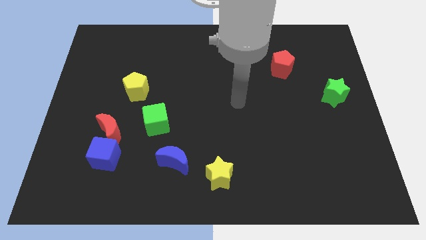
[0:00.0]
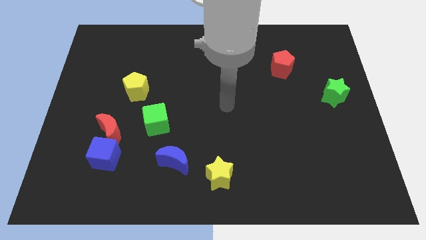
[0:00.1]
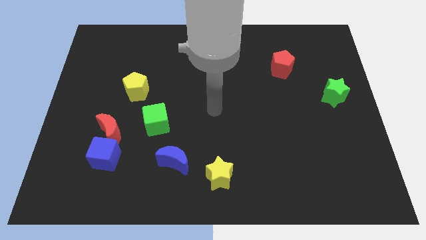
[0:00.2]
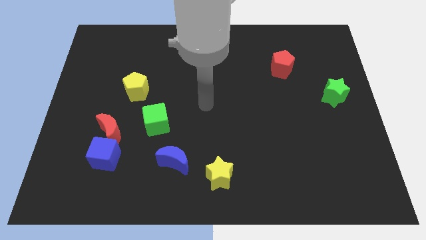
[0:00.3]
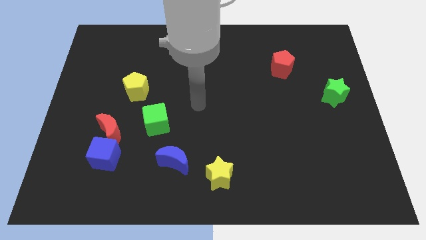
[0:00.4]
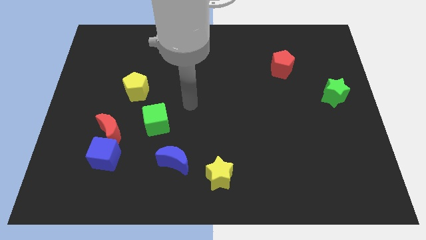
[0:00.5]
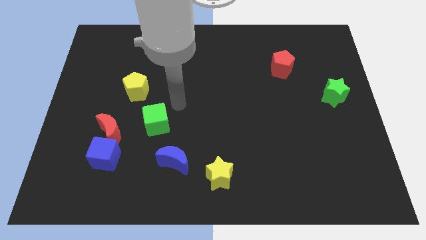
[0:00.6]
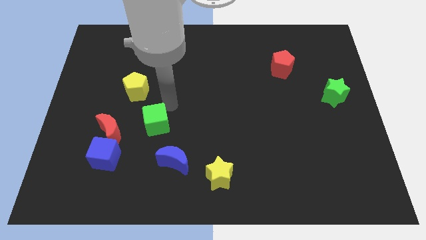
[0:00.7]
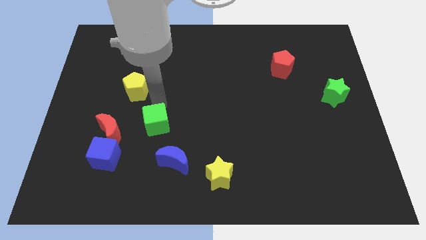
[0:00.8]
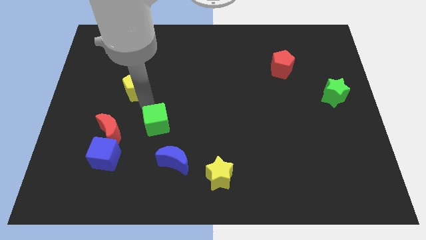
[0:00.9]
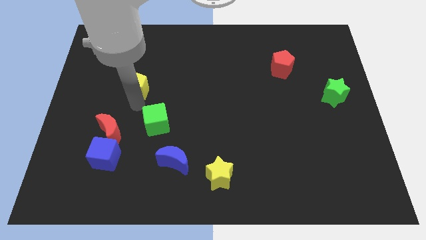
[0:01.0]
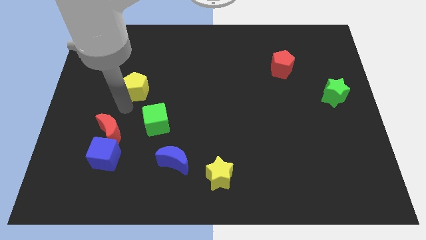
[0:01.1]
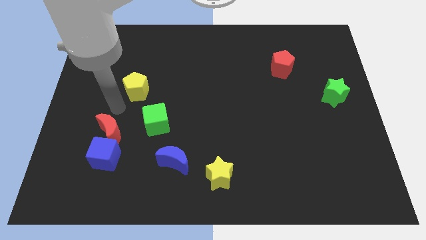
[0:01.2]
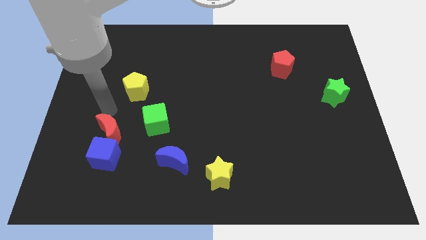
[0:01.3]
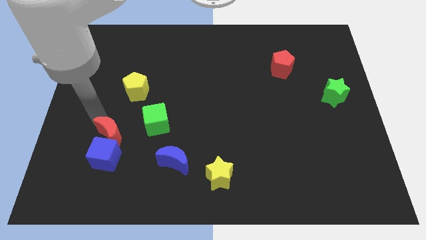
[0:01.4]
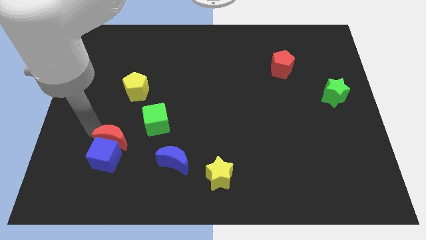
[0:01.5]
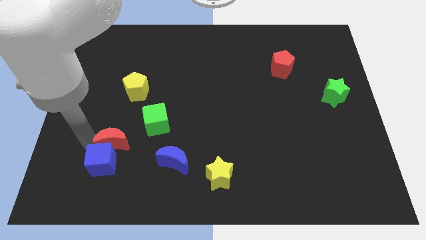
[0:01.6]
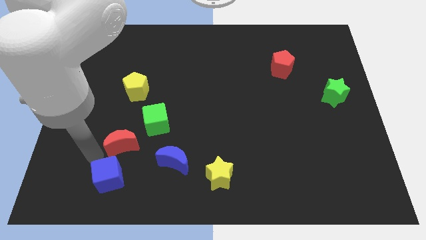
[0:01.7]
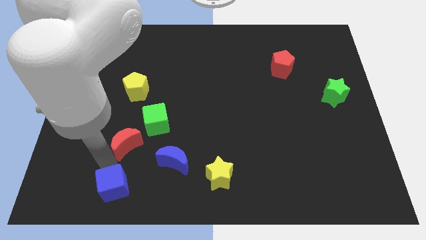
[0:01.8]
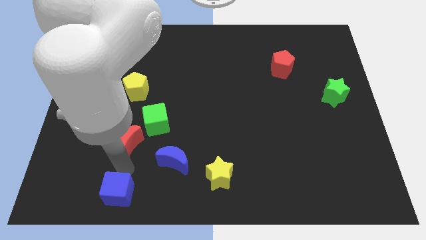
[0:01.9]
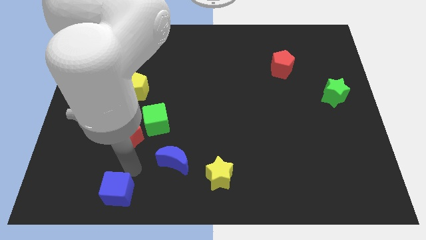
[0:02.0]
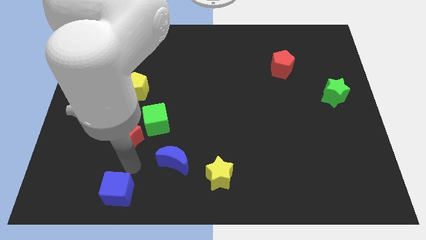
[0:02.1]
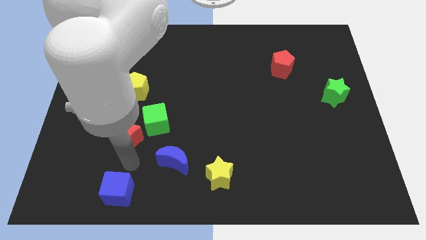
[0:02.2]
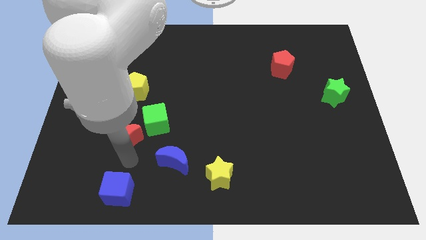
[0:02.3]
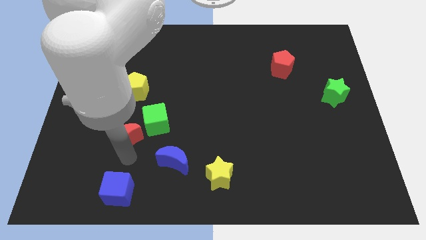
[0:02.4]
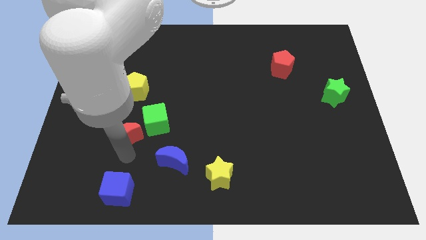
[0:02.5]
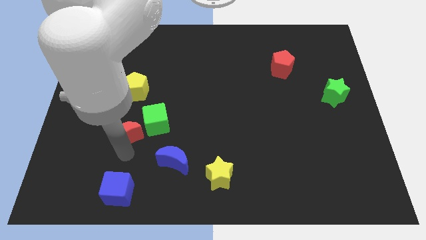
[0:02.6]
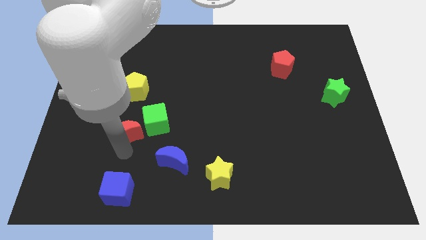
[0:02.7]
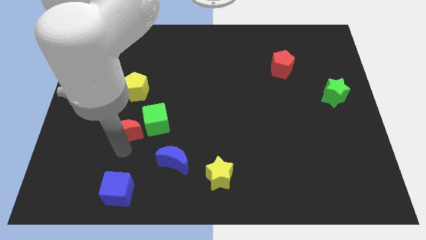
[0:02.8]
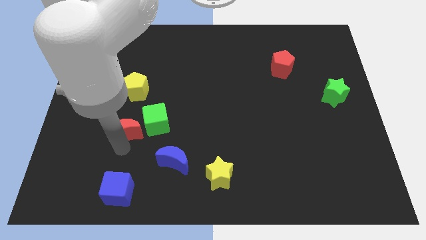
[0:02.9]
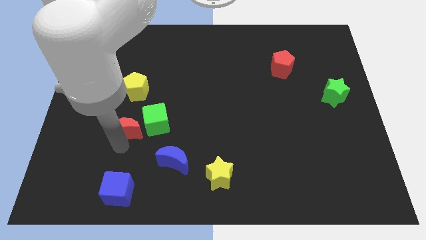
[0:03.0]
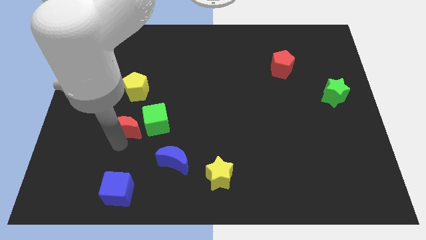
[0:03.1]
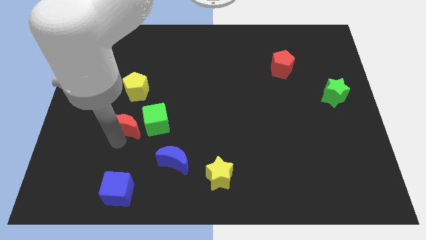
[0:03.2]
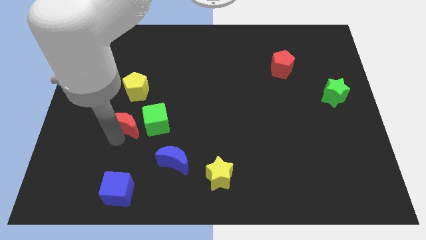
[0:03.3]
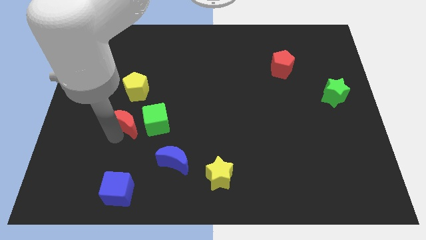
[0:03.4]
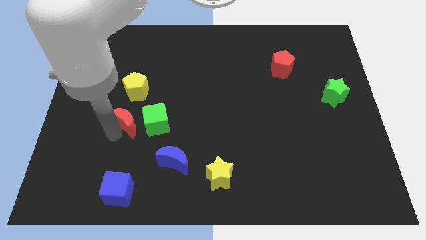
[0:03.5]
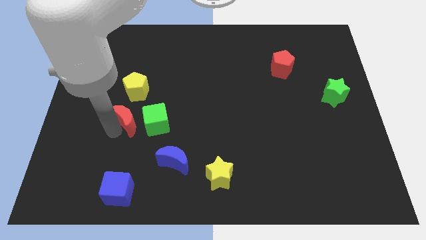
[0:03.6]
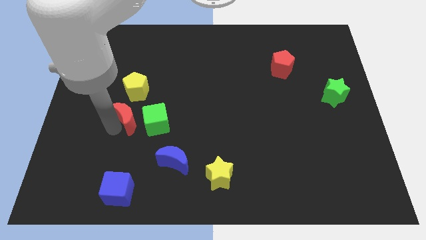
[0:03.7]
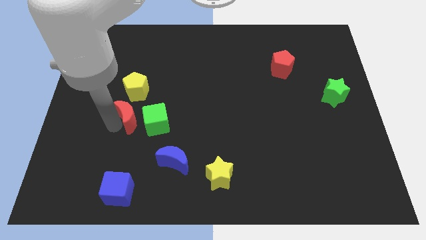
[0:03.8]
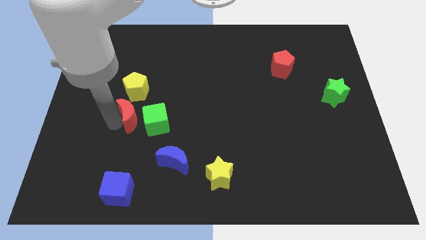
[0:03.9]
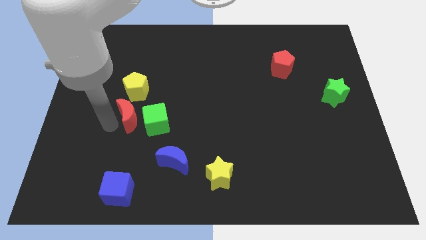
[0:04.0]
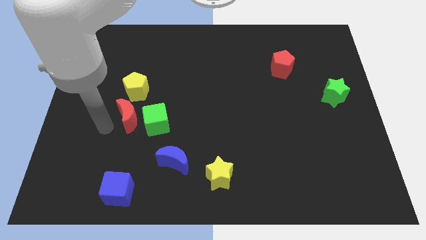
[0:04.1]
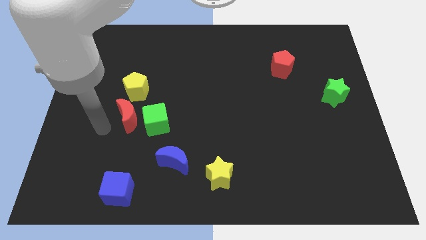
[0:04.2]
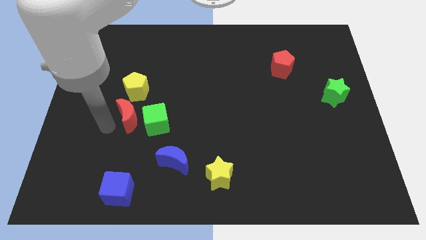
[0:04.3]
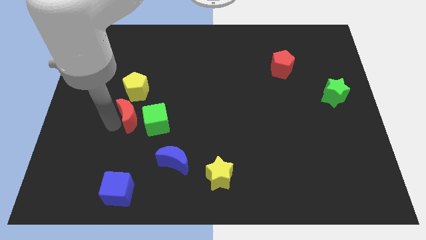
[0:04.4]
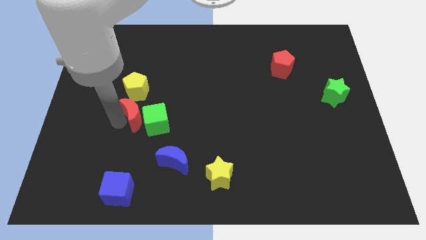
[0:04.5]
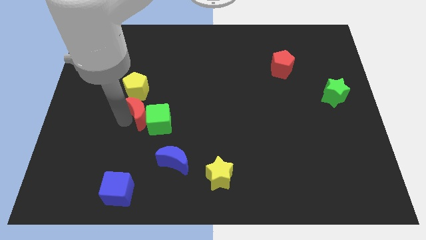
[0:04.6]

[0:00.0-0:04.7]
move the red moon somewhat diagonally upwards and to the right

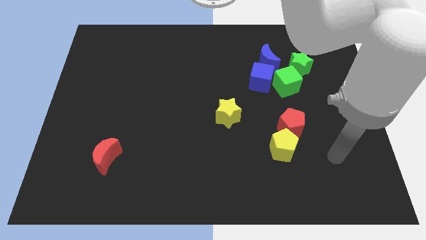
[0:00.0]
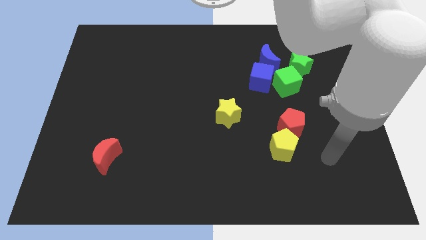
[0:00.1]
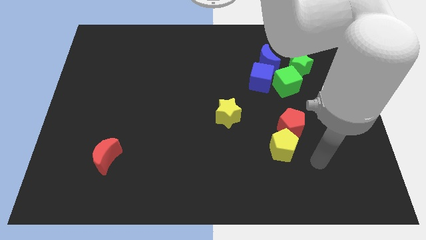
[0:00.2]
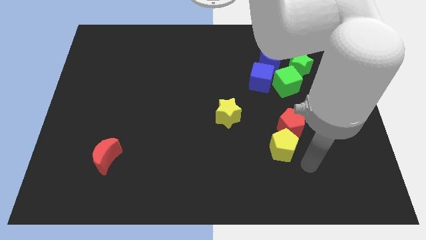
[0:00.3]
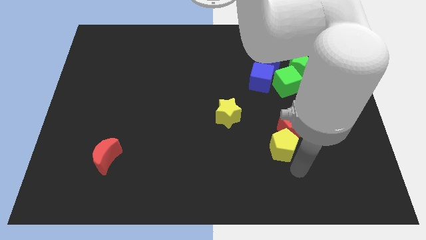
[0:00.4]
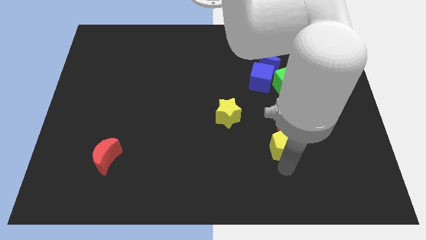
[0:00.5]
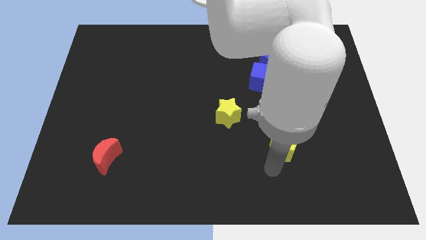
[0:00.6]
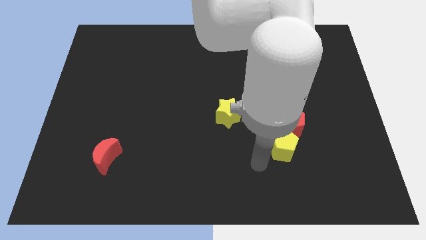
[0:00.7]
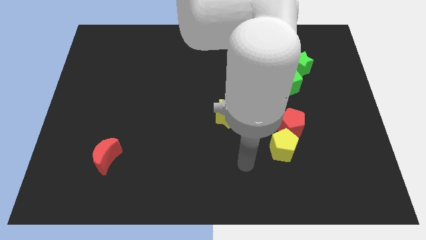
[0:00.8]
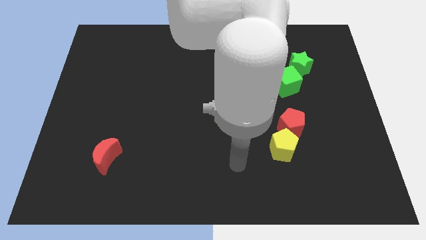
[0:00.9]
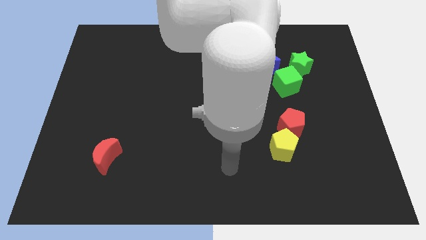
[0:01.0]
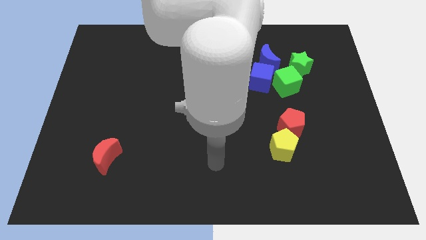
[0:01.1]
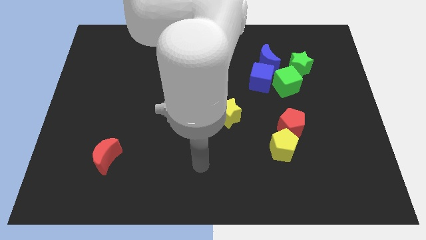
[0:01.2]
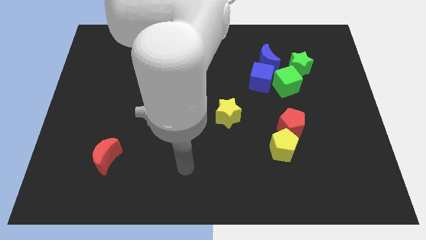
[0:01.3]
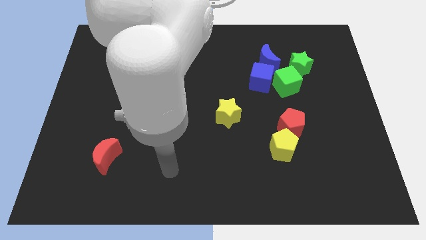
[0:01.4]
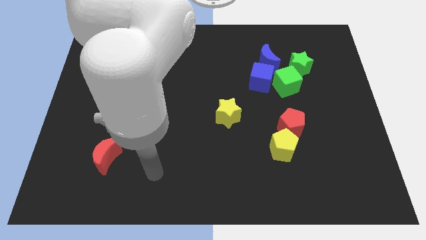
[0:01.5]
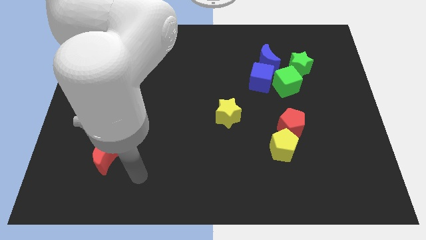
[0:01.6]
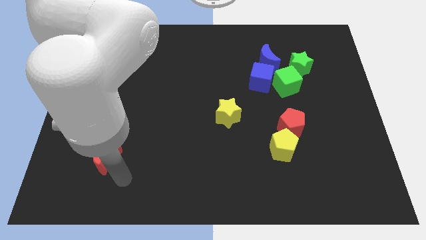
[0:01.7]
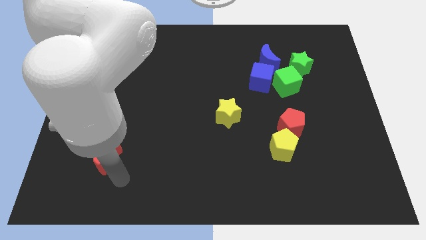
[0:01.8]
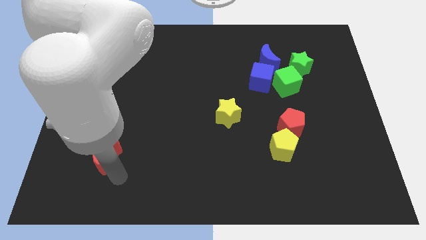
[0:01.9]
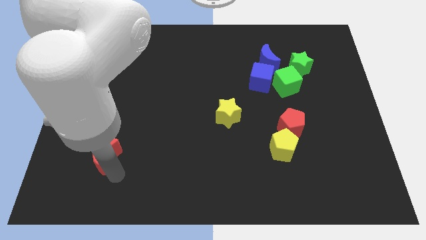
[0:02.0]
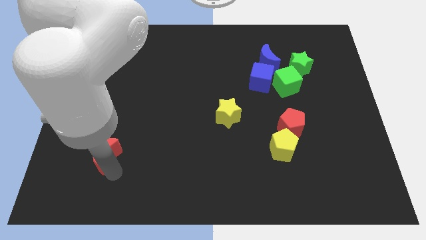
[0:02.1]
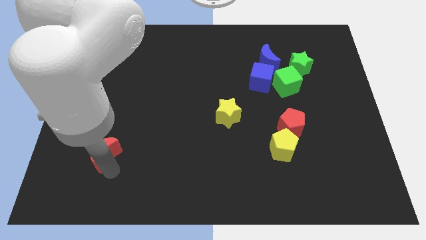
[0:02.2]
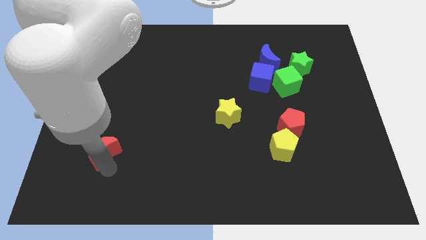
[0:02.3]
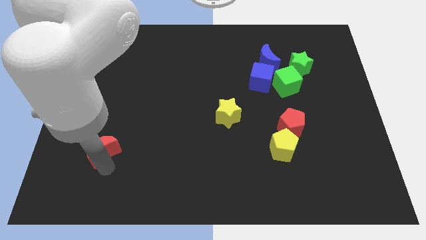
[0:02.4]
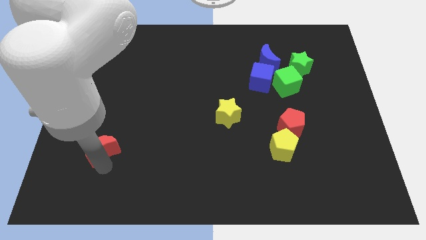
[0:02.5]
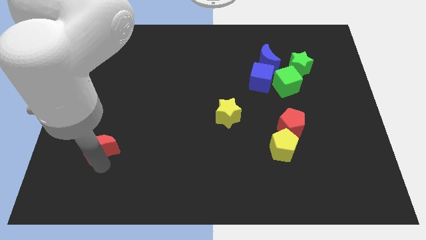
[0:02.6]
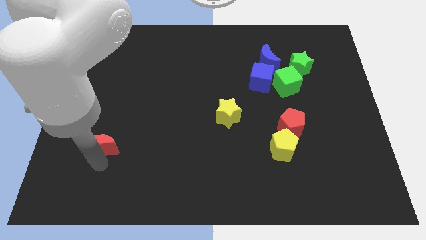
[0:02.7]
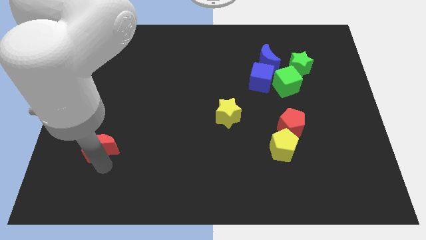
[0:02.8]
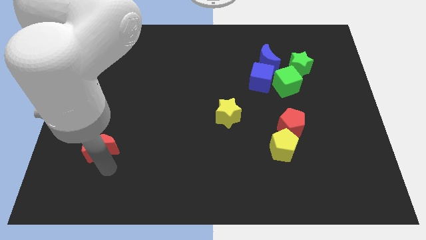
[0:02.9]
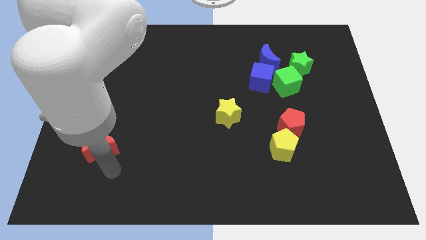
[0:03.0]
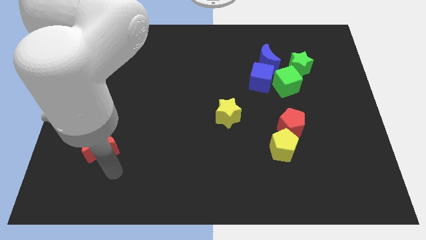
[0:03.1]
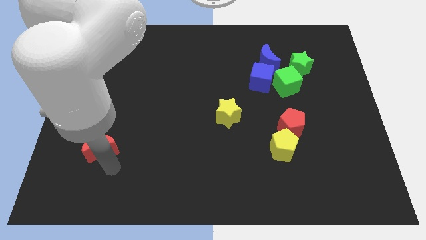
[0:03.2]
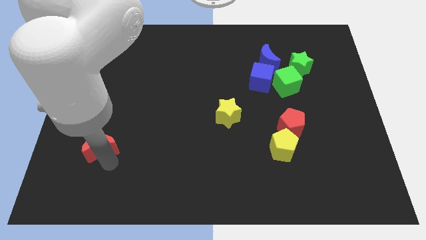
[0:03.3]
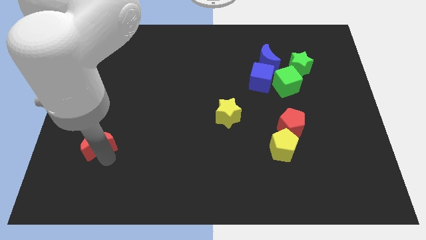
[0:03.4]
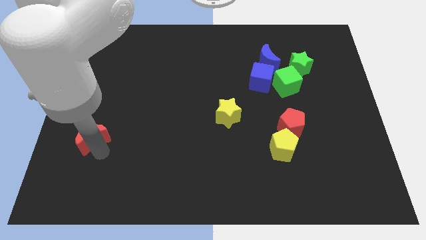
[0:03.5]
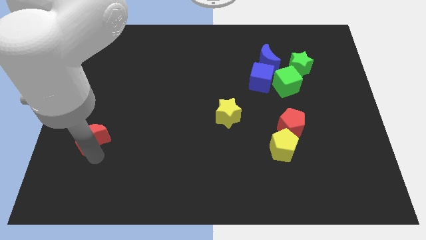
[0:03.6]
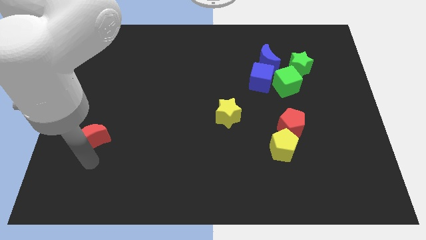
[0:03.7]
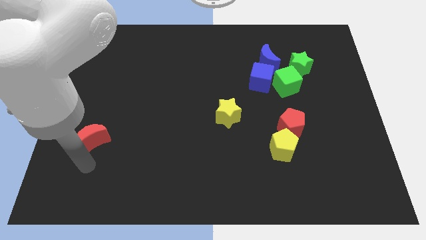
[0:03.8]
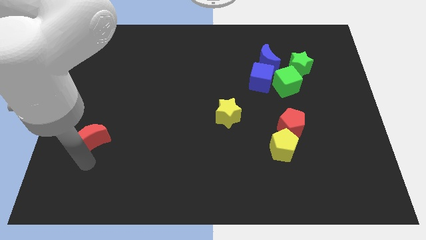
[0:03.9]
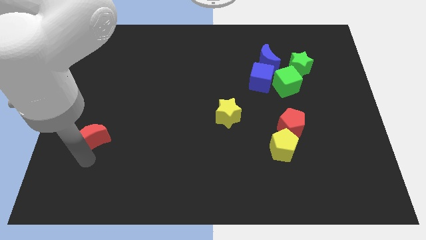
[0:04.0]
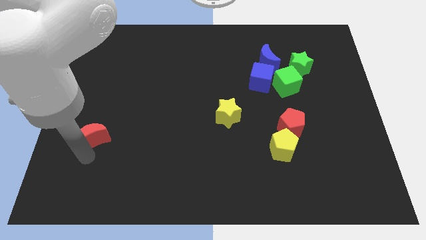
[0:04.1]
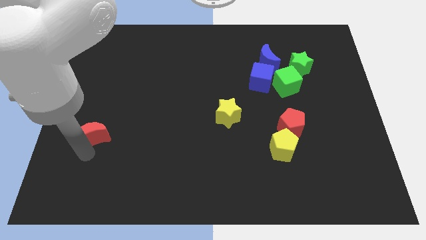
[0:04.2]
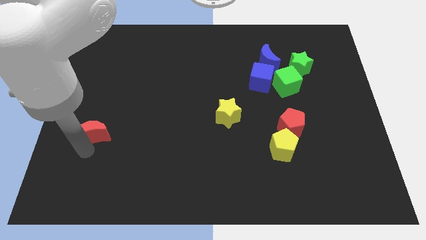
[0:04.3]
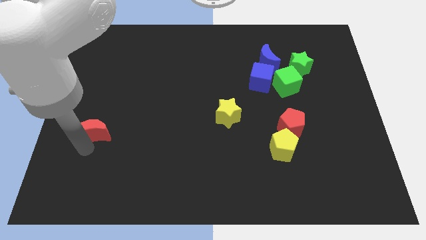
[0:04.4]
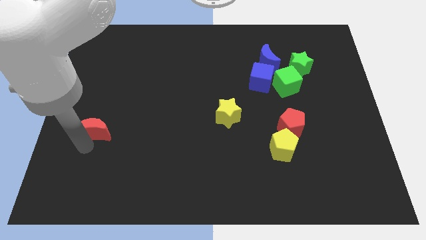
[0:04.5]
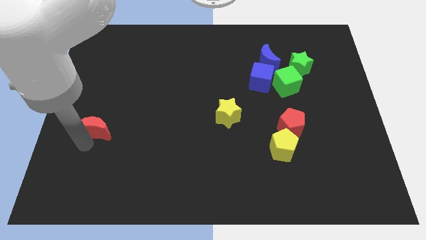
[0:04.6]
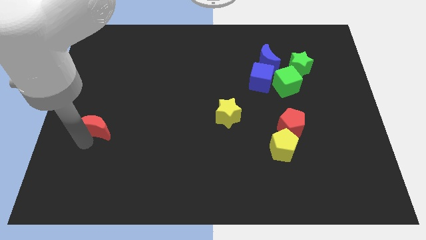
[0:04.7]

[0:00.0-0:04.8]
move the red moon a little bit up
